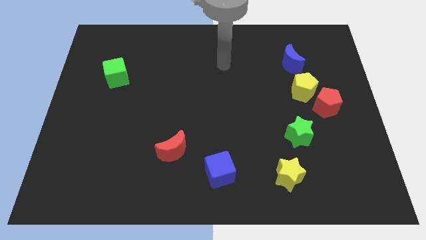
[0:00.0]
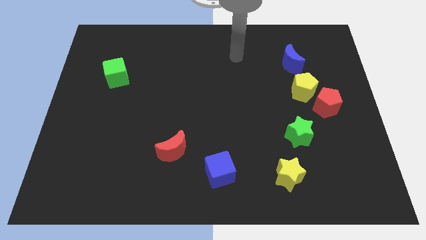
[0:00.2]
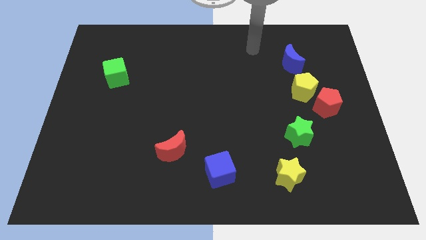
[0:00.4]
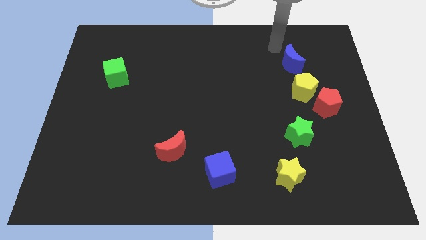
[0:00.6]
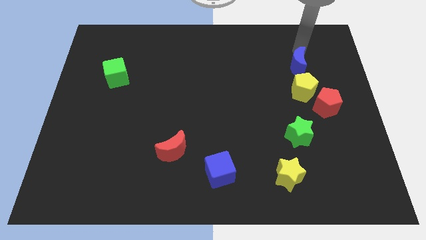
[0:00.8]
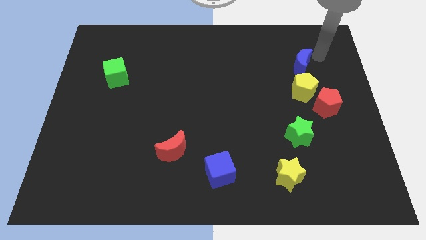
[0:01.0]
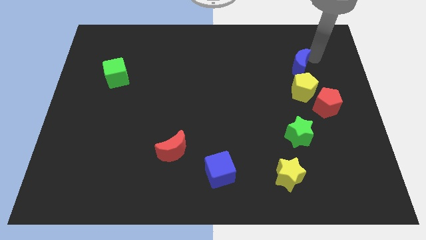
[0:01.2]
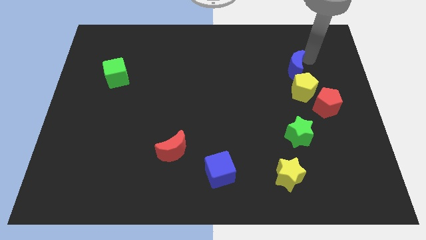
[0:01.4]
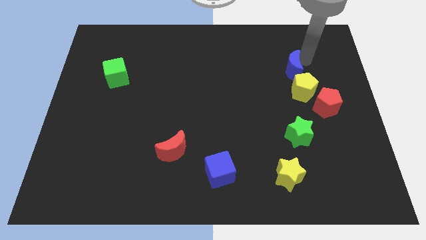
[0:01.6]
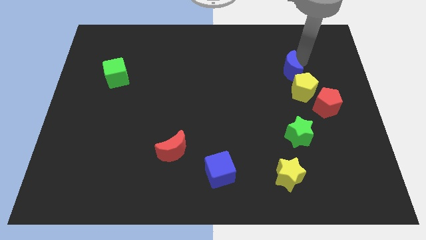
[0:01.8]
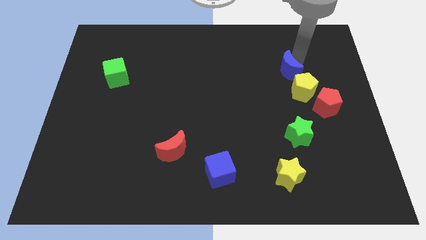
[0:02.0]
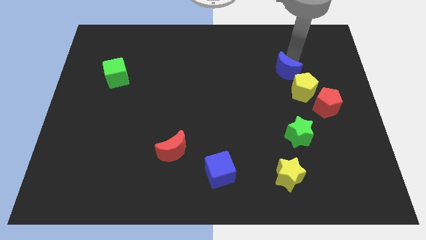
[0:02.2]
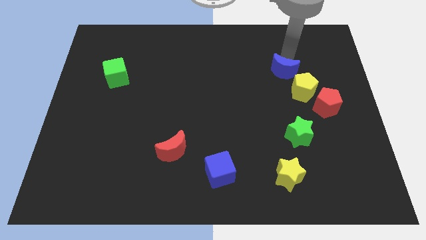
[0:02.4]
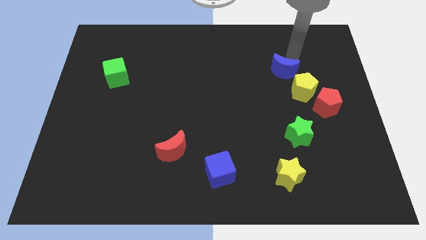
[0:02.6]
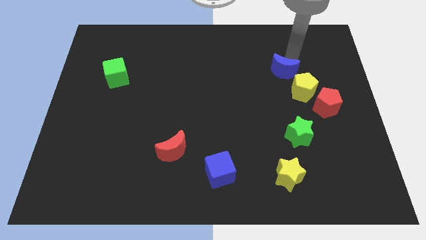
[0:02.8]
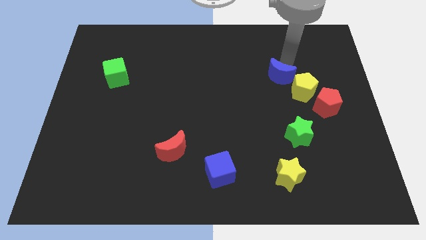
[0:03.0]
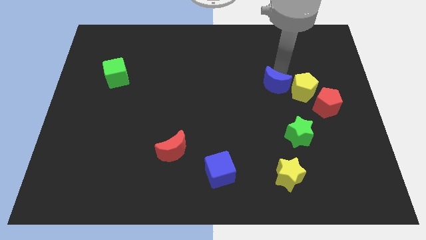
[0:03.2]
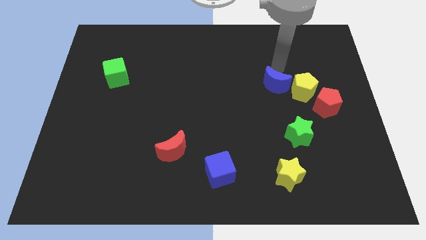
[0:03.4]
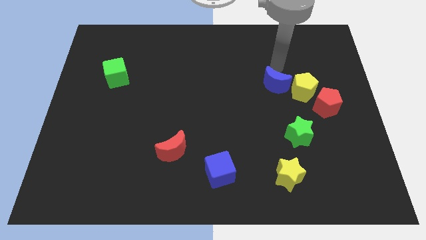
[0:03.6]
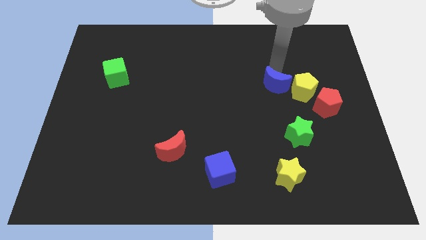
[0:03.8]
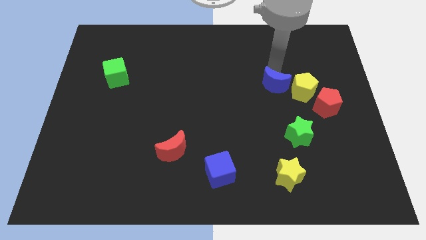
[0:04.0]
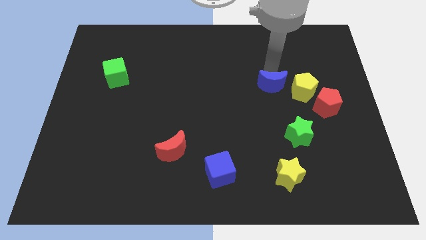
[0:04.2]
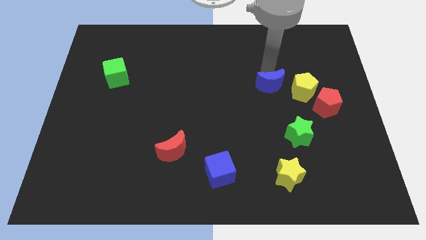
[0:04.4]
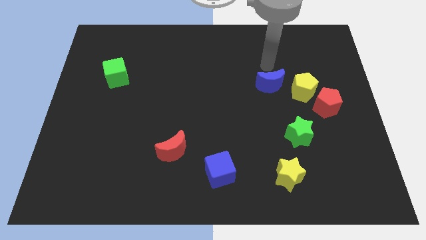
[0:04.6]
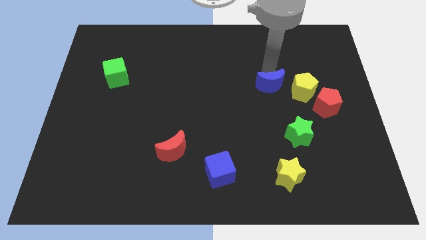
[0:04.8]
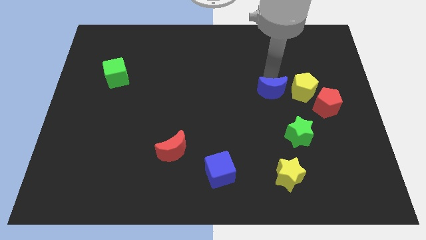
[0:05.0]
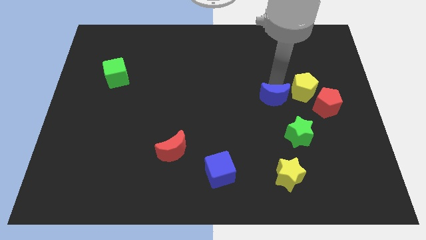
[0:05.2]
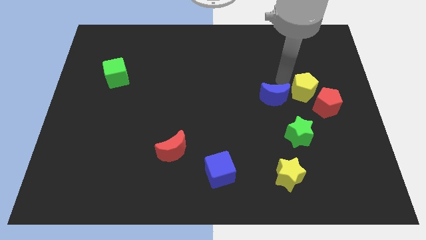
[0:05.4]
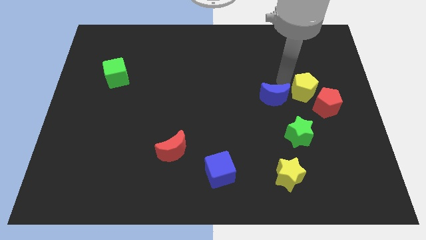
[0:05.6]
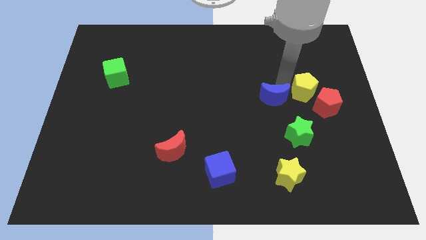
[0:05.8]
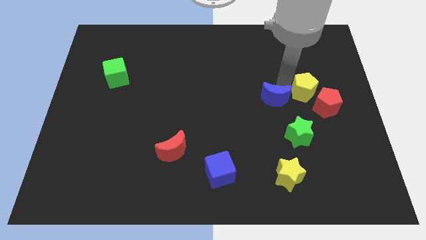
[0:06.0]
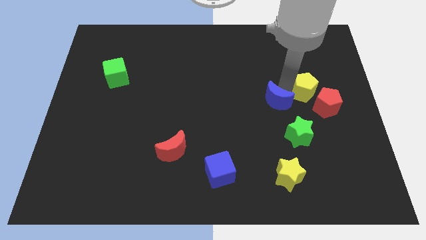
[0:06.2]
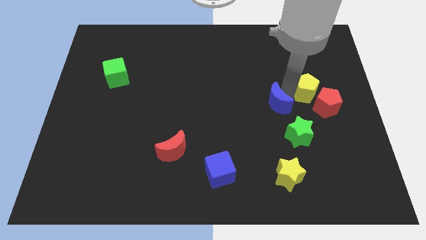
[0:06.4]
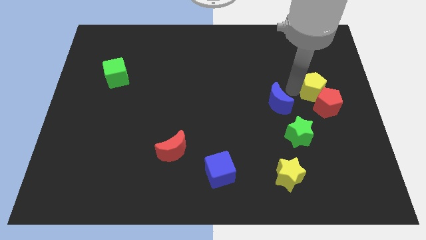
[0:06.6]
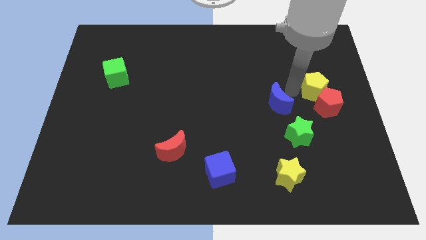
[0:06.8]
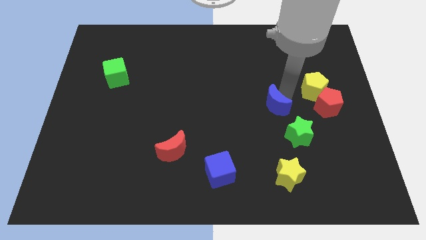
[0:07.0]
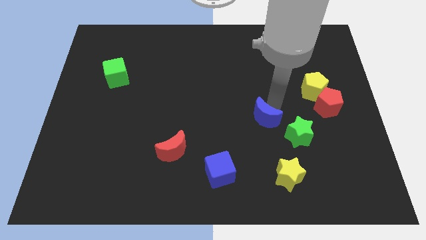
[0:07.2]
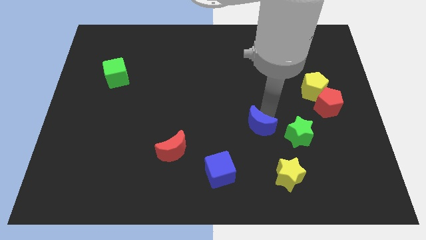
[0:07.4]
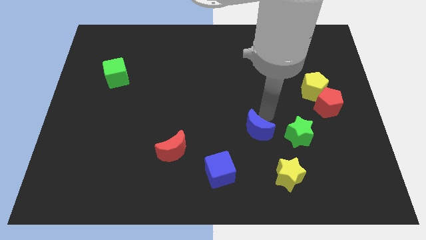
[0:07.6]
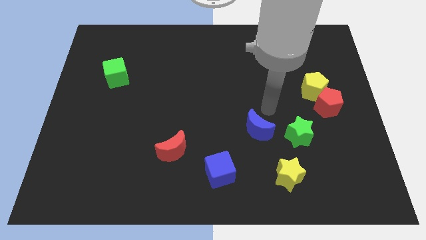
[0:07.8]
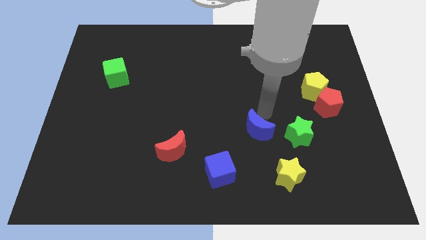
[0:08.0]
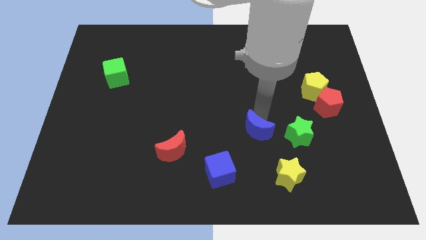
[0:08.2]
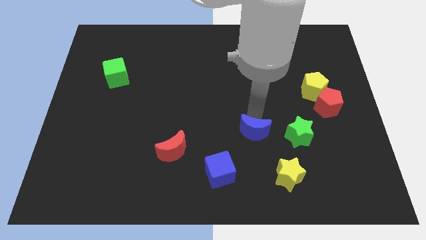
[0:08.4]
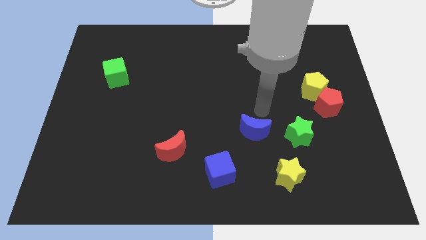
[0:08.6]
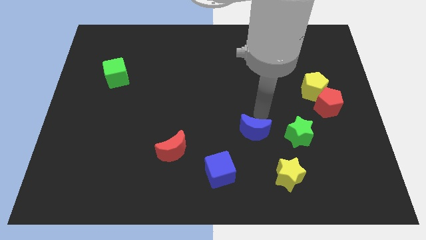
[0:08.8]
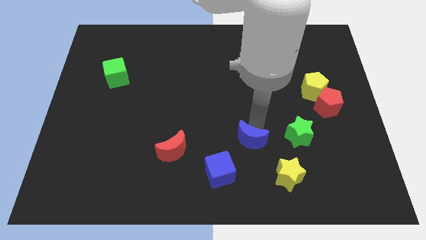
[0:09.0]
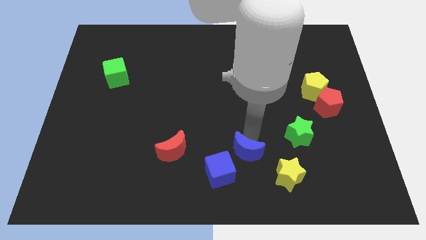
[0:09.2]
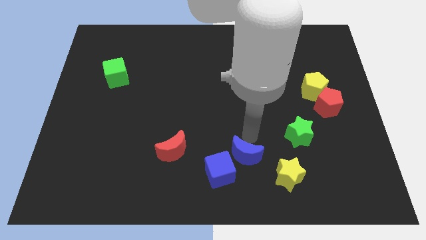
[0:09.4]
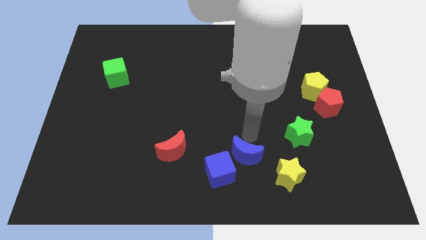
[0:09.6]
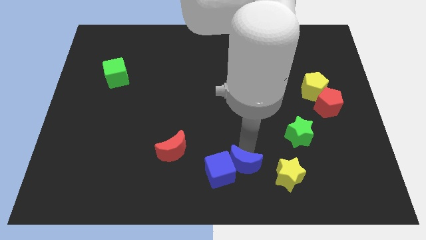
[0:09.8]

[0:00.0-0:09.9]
slide the blue moon to the bottom side

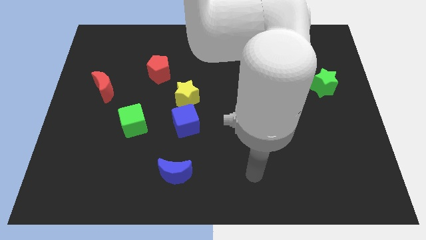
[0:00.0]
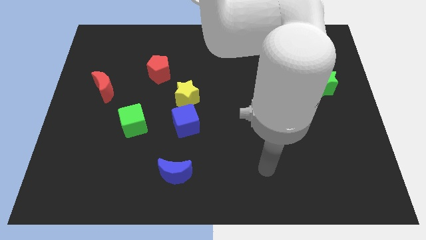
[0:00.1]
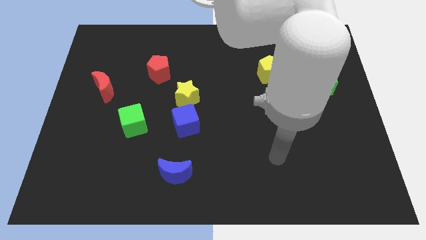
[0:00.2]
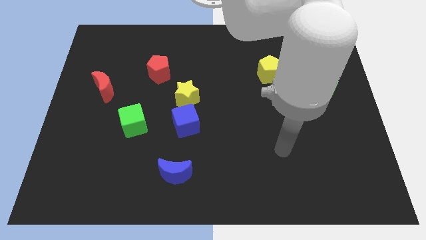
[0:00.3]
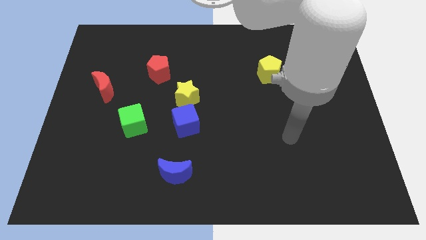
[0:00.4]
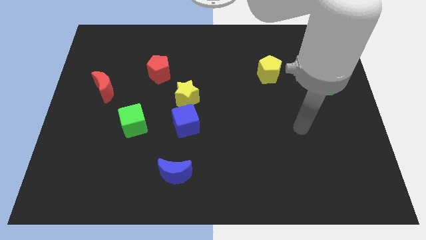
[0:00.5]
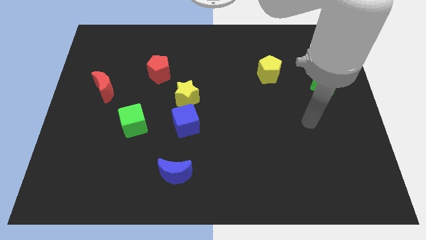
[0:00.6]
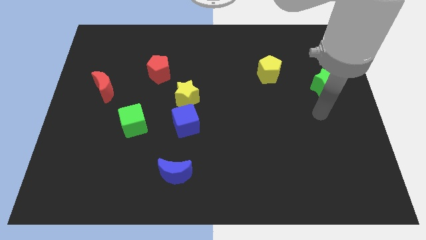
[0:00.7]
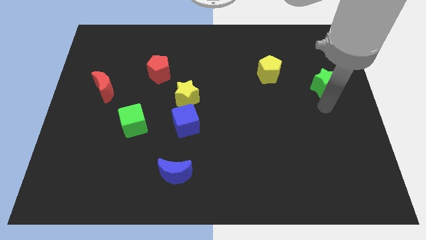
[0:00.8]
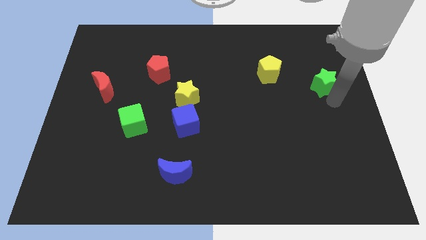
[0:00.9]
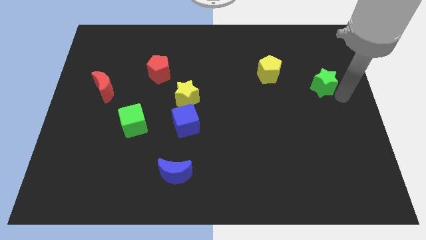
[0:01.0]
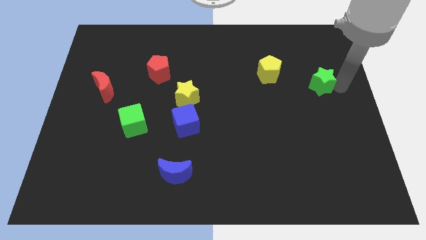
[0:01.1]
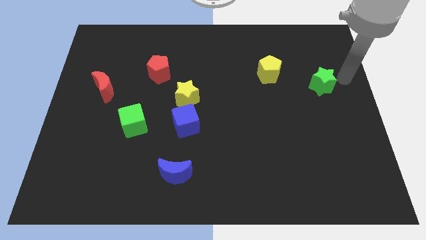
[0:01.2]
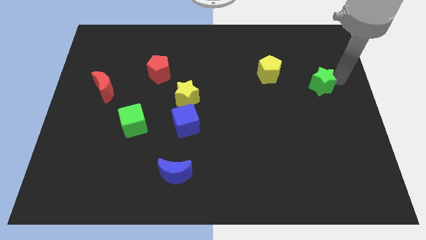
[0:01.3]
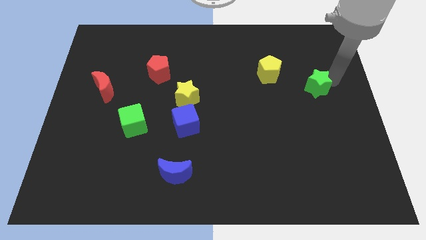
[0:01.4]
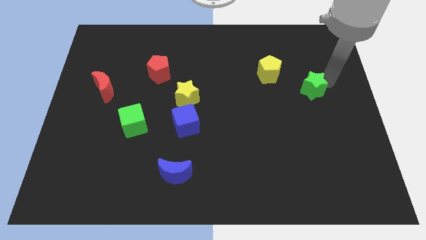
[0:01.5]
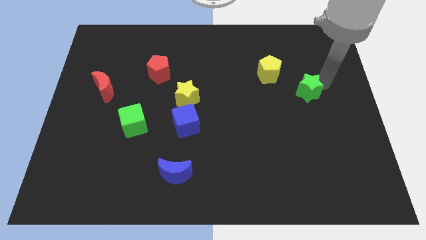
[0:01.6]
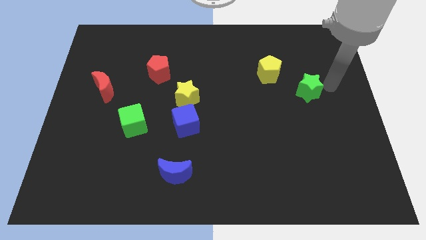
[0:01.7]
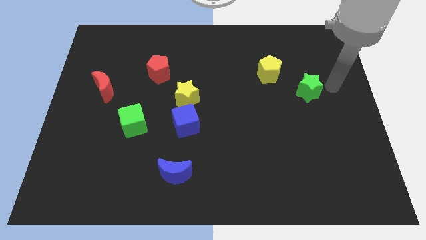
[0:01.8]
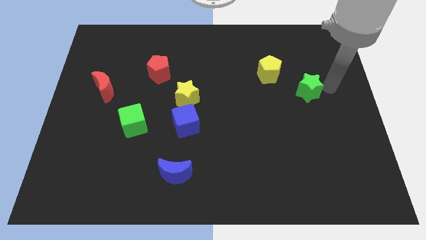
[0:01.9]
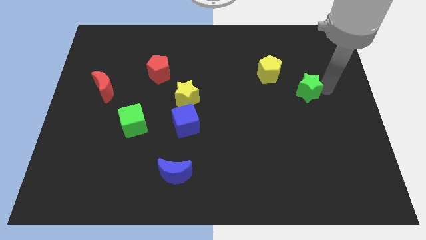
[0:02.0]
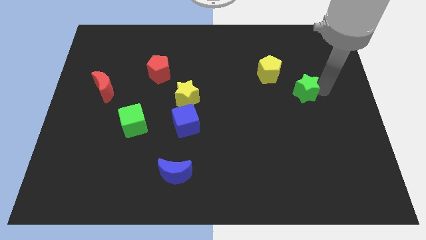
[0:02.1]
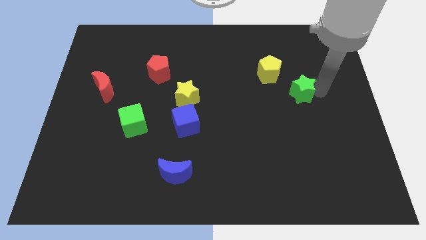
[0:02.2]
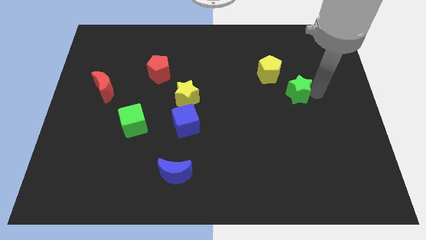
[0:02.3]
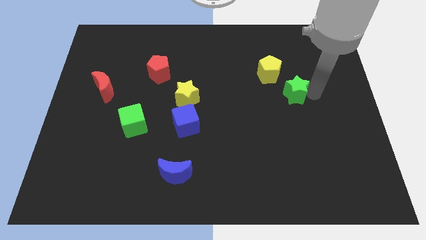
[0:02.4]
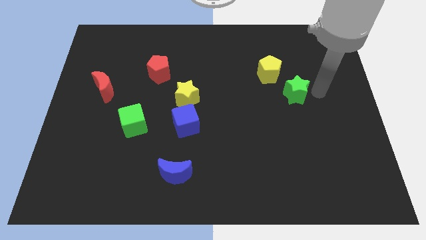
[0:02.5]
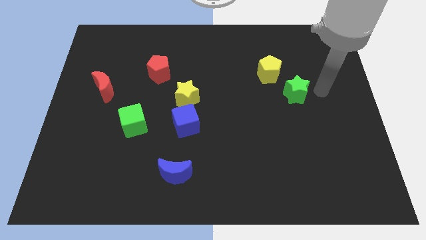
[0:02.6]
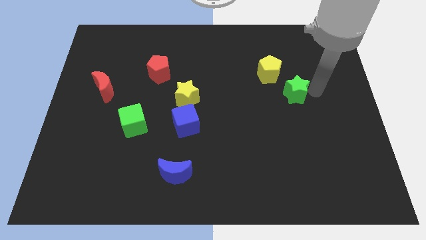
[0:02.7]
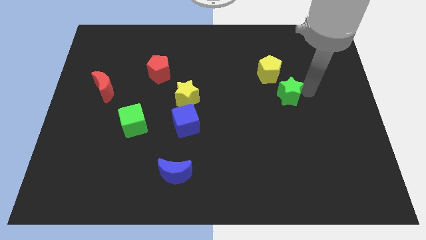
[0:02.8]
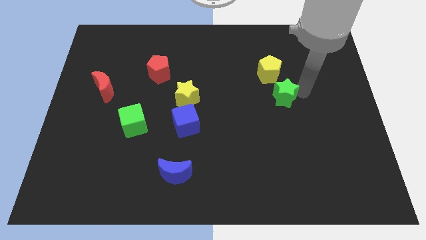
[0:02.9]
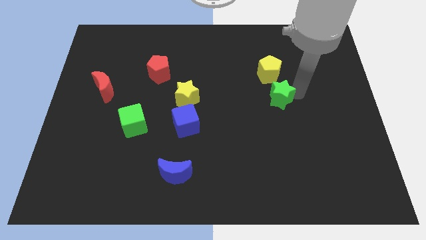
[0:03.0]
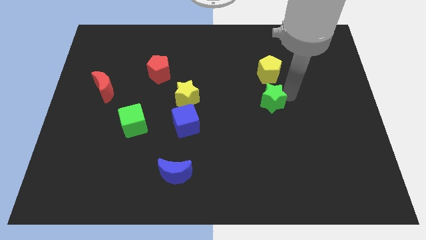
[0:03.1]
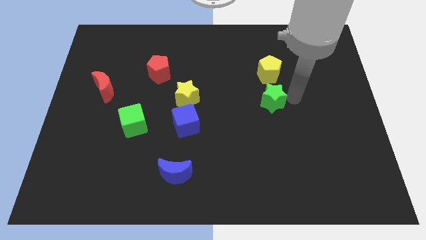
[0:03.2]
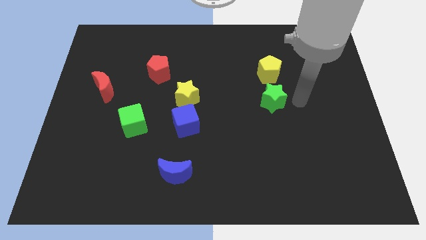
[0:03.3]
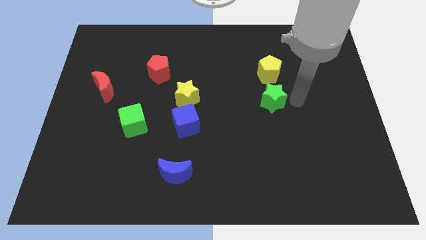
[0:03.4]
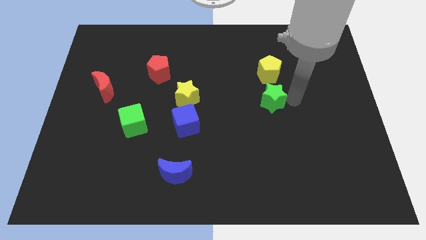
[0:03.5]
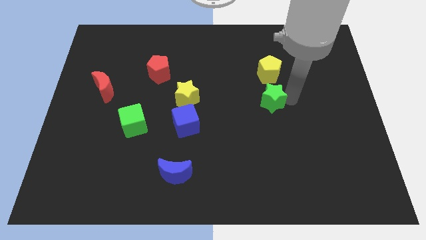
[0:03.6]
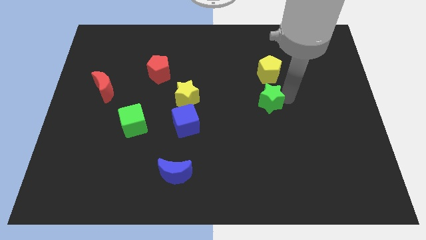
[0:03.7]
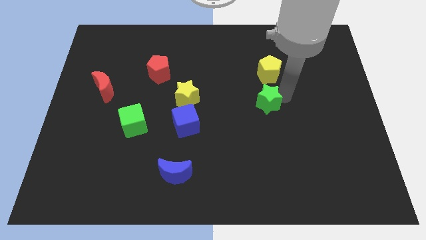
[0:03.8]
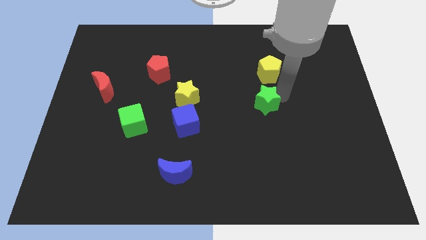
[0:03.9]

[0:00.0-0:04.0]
slide the green star to the middle
